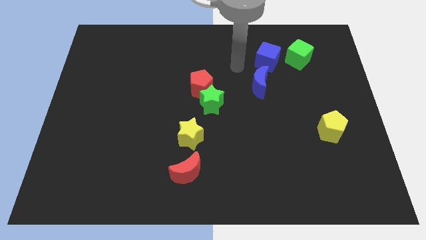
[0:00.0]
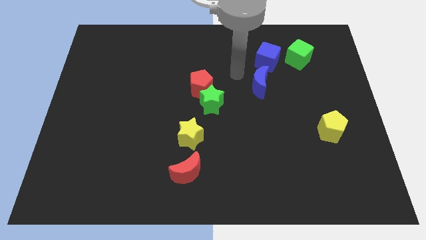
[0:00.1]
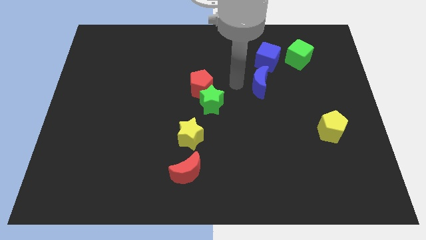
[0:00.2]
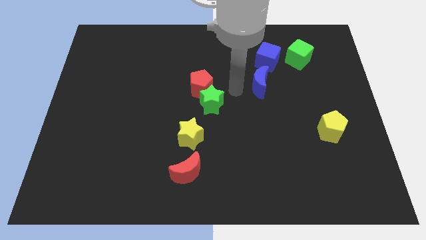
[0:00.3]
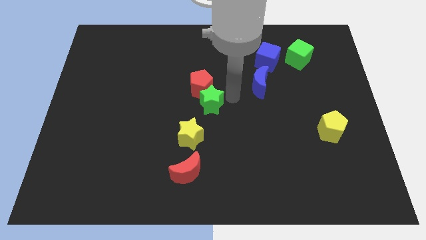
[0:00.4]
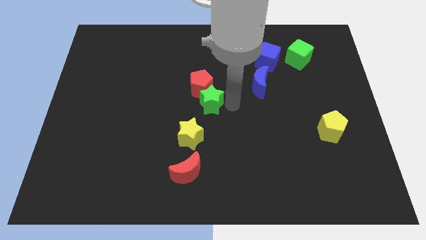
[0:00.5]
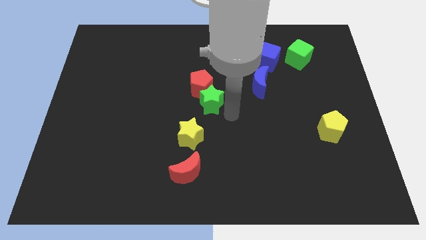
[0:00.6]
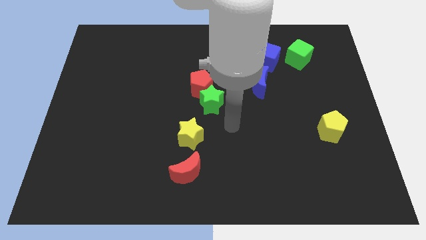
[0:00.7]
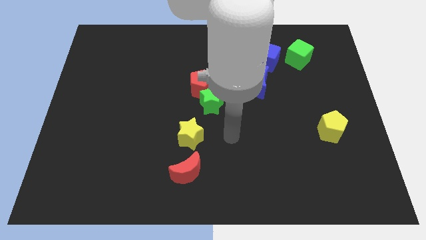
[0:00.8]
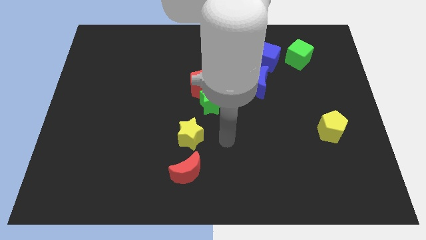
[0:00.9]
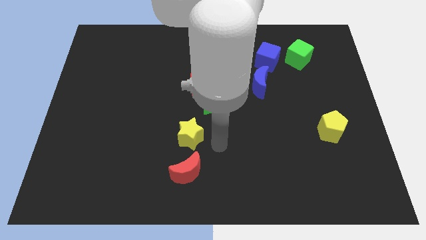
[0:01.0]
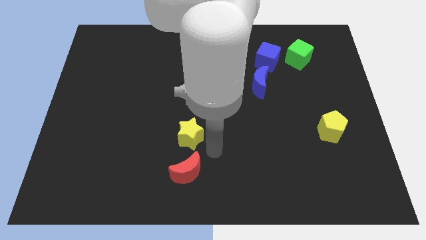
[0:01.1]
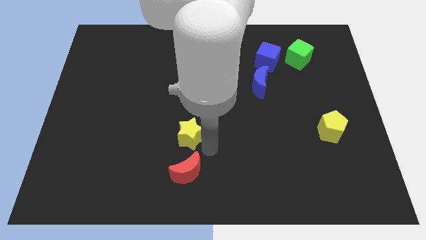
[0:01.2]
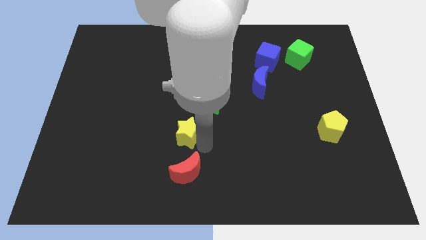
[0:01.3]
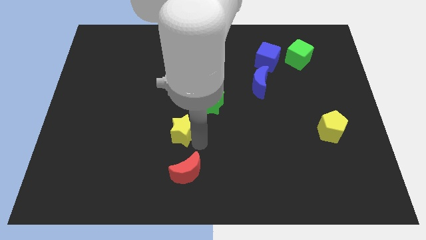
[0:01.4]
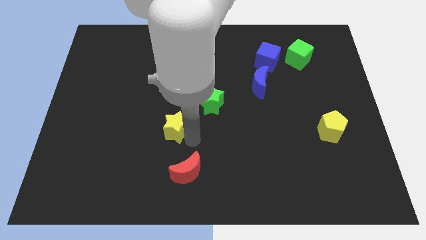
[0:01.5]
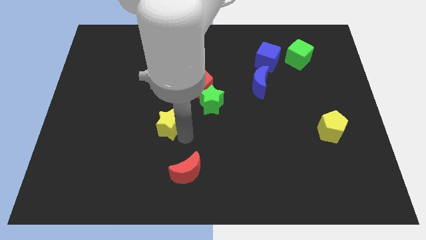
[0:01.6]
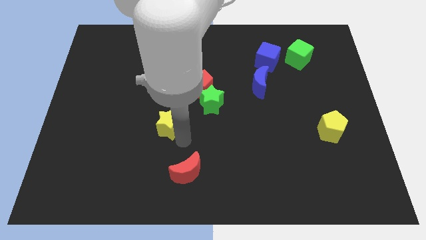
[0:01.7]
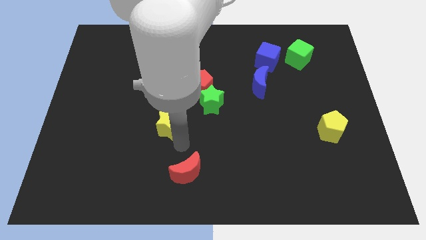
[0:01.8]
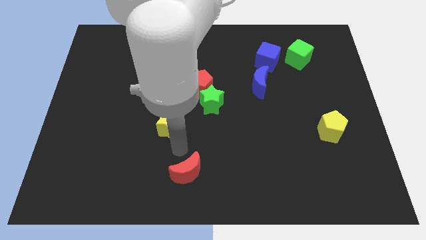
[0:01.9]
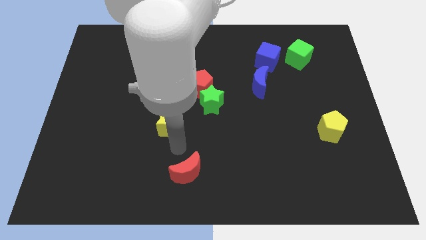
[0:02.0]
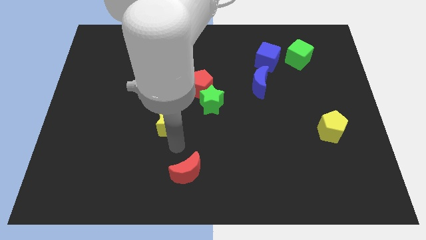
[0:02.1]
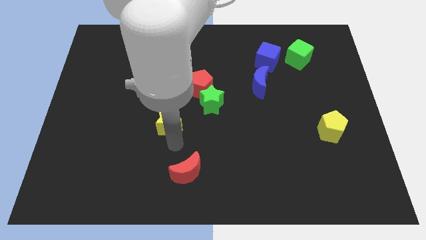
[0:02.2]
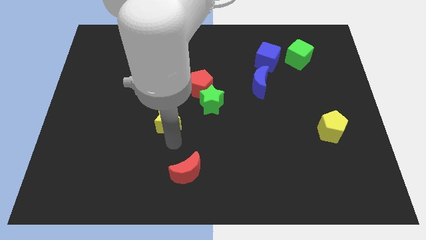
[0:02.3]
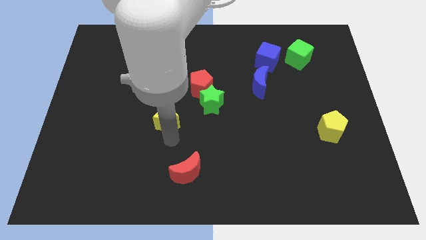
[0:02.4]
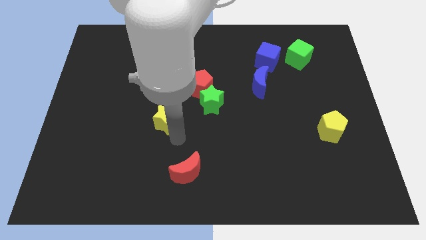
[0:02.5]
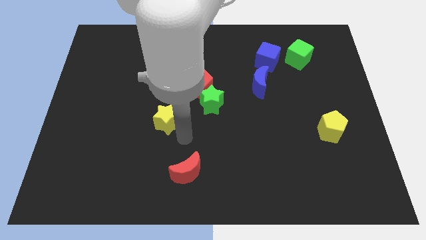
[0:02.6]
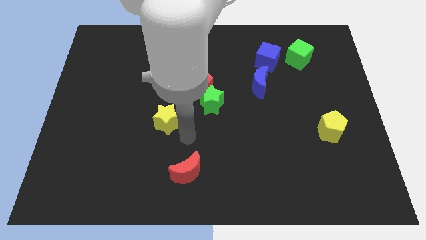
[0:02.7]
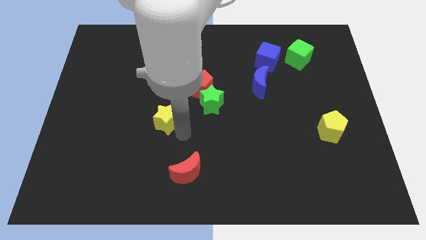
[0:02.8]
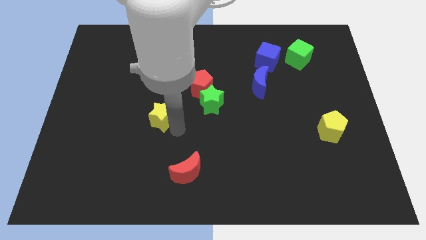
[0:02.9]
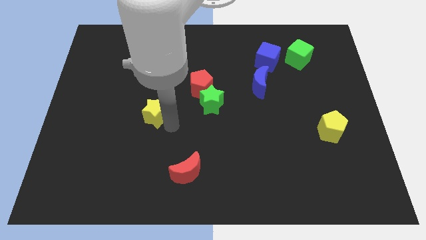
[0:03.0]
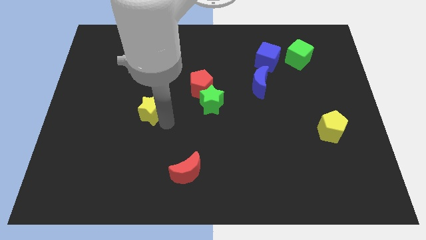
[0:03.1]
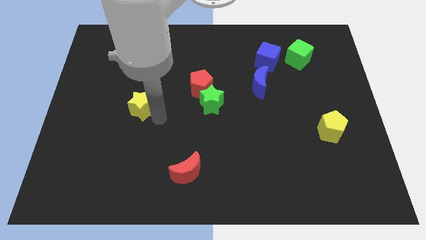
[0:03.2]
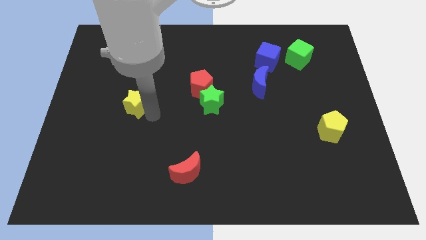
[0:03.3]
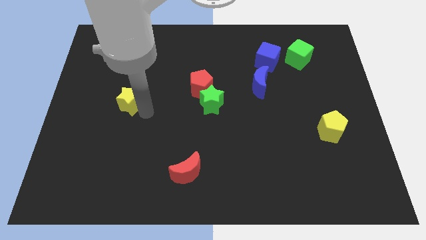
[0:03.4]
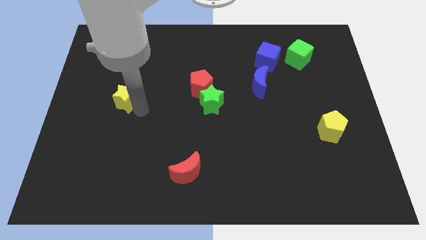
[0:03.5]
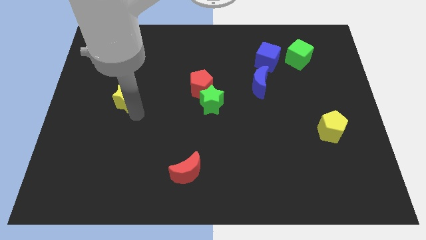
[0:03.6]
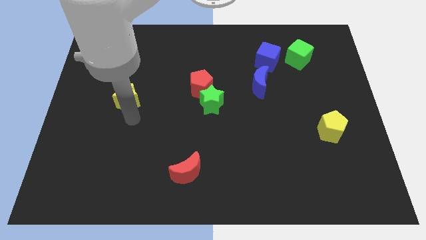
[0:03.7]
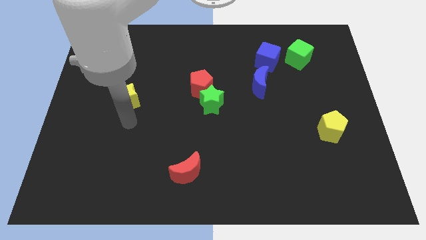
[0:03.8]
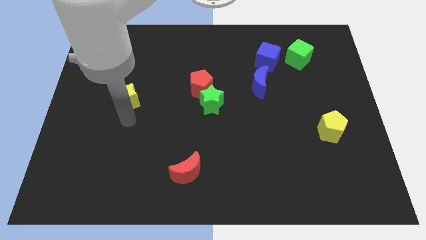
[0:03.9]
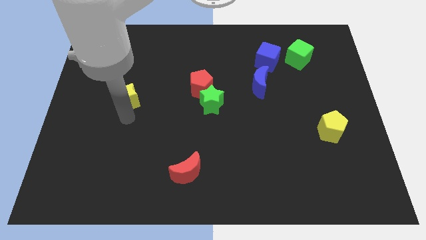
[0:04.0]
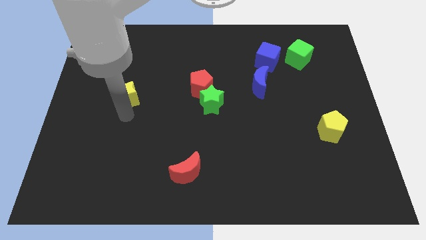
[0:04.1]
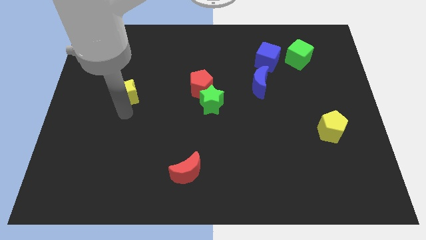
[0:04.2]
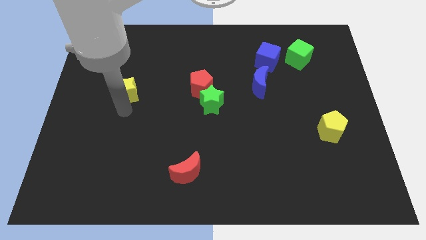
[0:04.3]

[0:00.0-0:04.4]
push the yellow star diagonally up and to the left

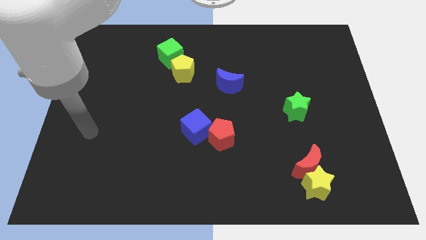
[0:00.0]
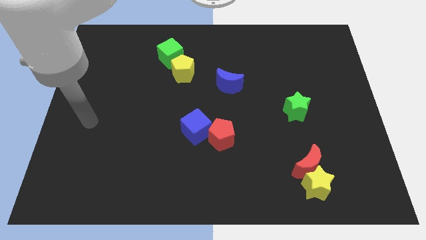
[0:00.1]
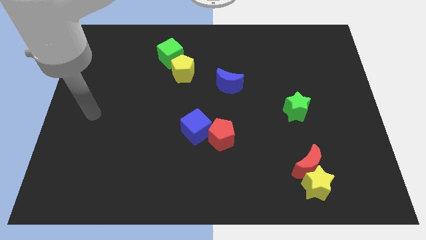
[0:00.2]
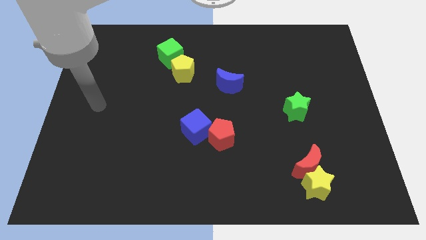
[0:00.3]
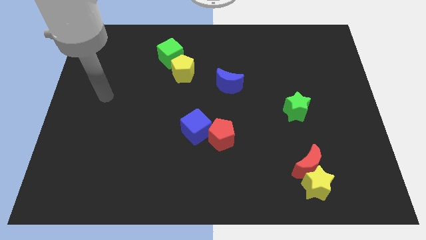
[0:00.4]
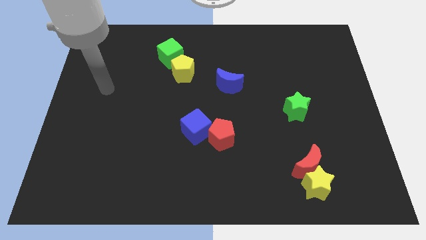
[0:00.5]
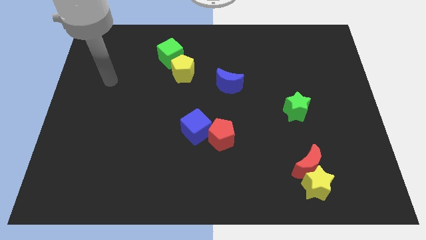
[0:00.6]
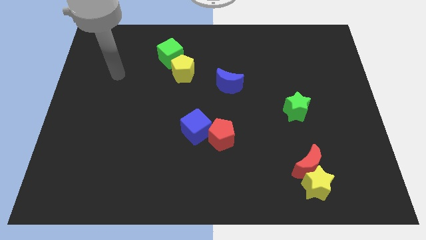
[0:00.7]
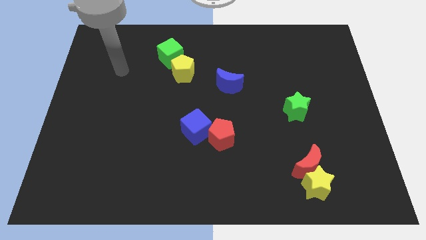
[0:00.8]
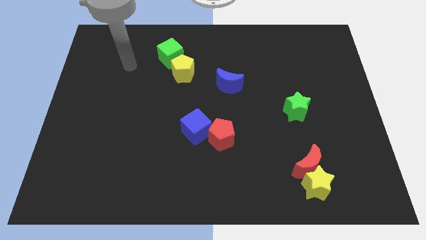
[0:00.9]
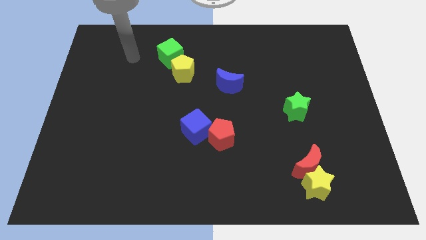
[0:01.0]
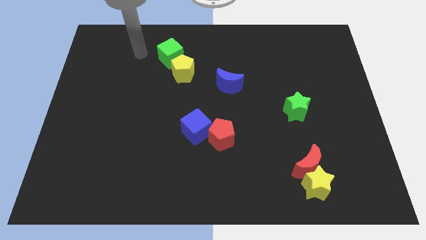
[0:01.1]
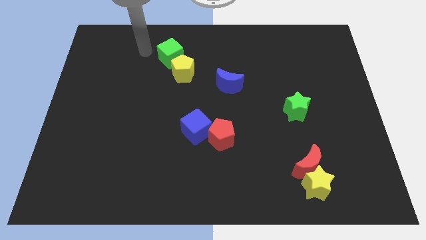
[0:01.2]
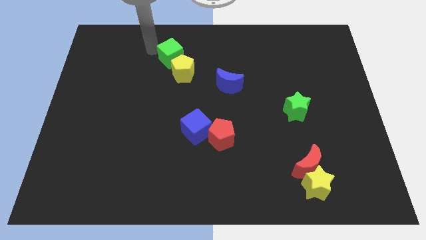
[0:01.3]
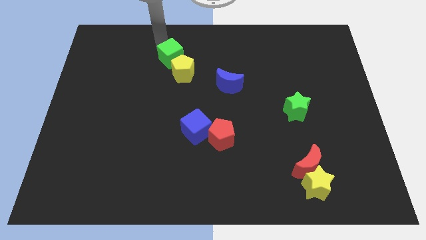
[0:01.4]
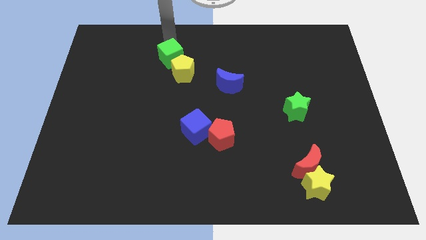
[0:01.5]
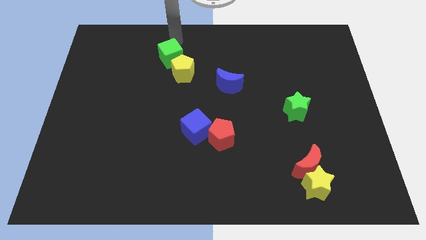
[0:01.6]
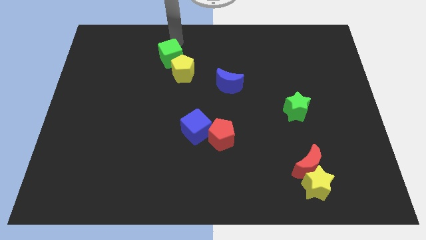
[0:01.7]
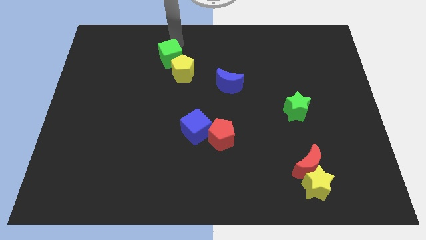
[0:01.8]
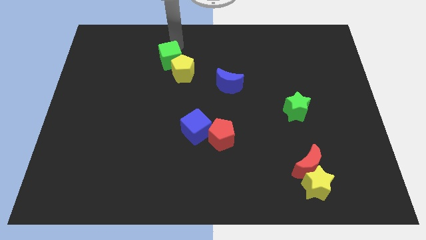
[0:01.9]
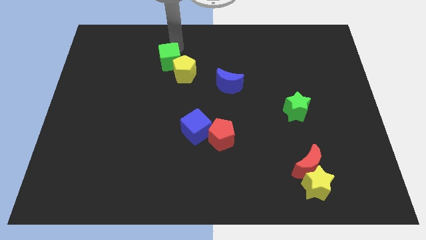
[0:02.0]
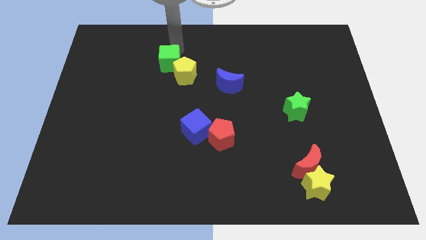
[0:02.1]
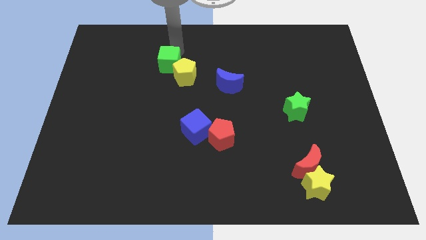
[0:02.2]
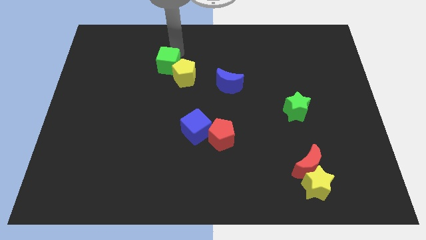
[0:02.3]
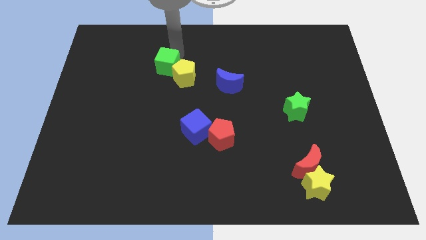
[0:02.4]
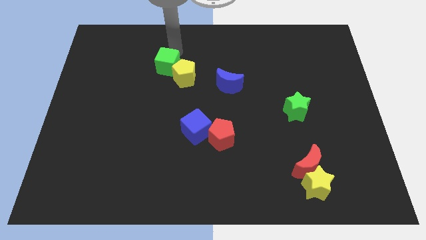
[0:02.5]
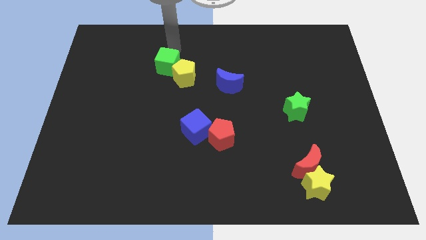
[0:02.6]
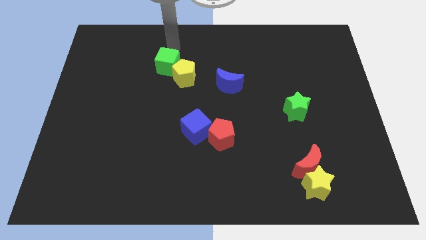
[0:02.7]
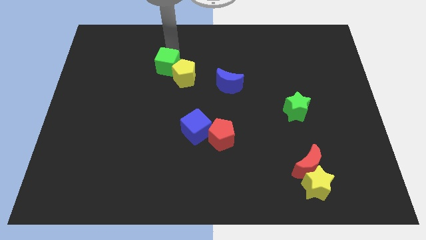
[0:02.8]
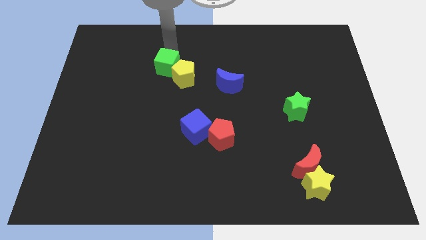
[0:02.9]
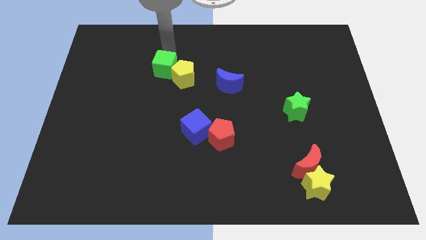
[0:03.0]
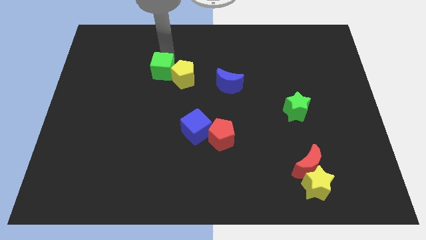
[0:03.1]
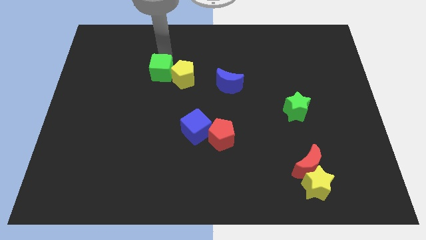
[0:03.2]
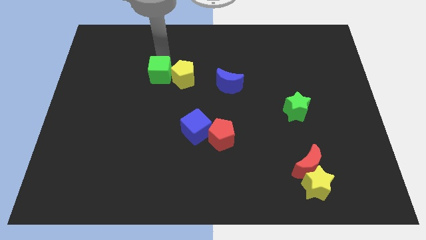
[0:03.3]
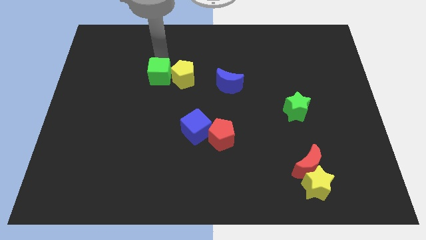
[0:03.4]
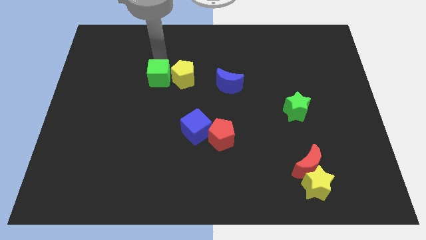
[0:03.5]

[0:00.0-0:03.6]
move the green cube down a bit
